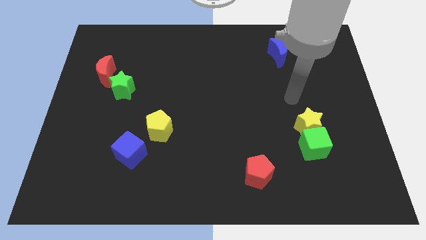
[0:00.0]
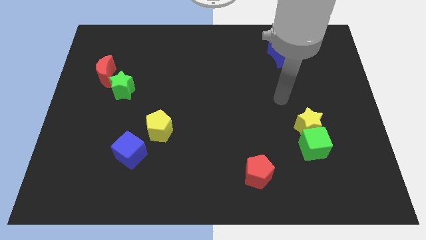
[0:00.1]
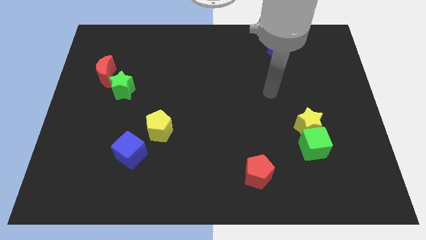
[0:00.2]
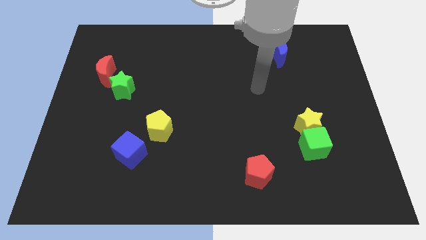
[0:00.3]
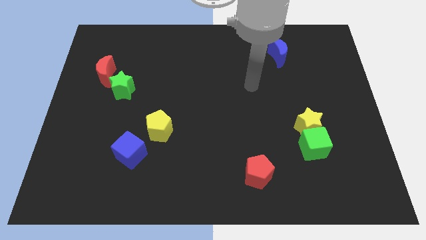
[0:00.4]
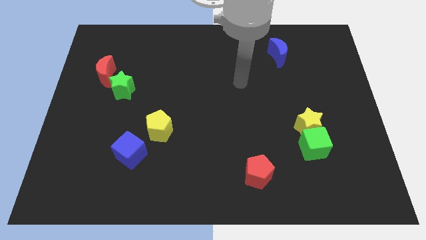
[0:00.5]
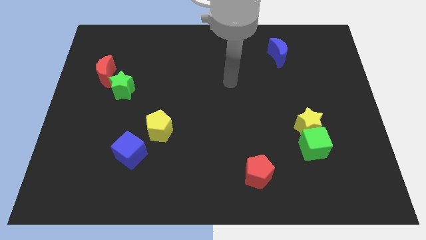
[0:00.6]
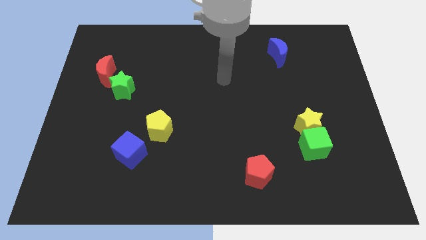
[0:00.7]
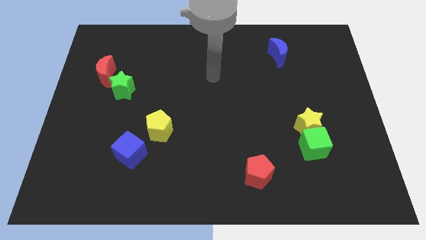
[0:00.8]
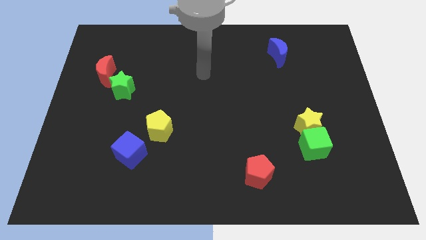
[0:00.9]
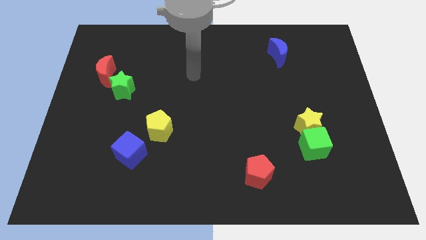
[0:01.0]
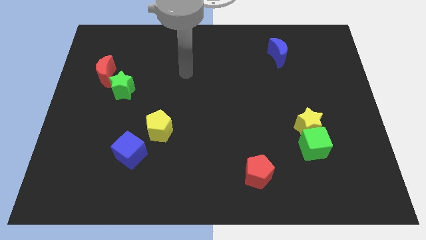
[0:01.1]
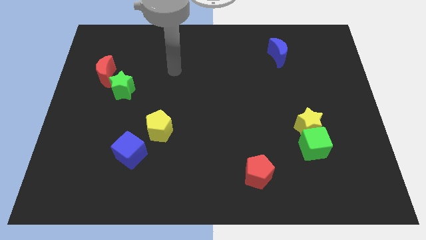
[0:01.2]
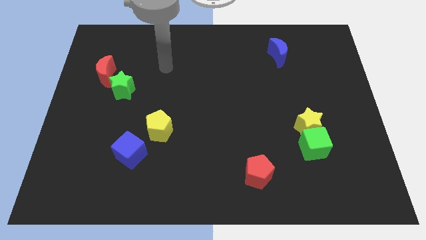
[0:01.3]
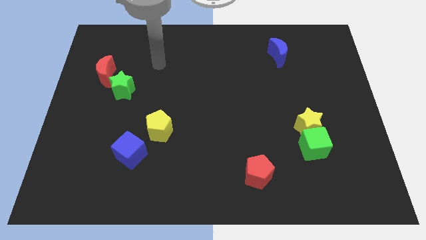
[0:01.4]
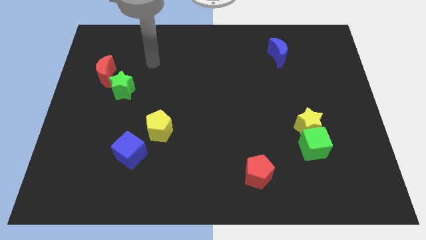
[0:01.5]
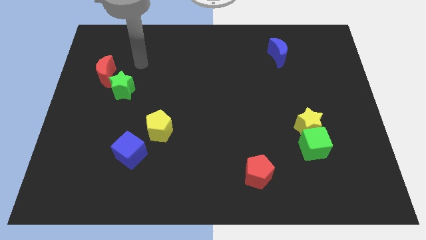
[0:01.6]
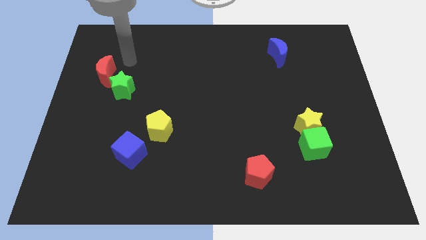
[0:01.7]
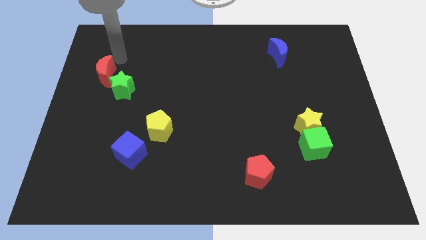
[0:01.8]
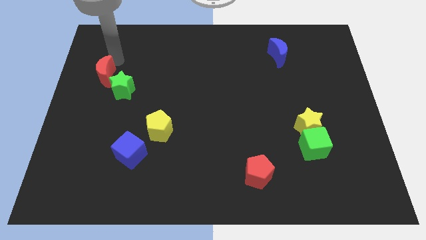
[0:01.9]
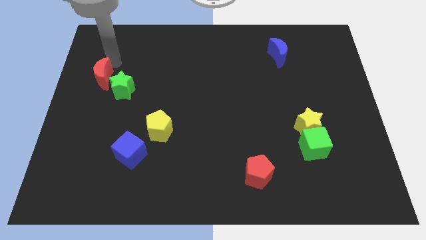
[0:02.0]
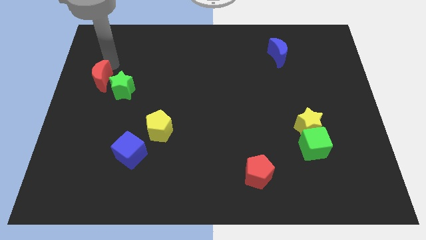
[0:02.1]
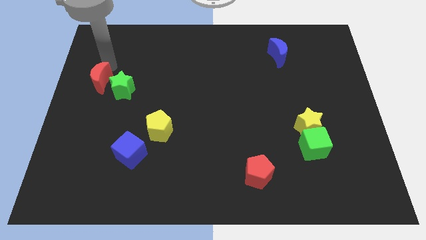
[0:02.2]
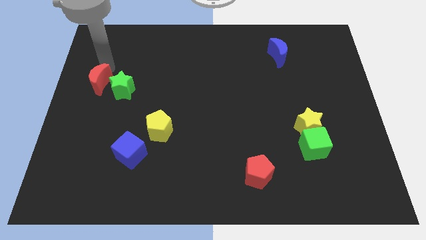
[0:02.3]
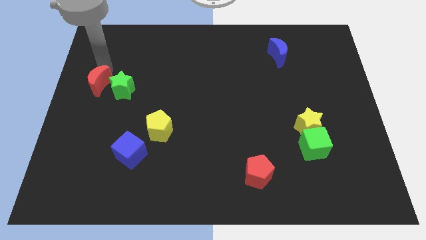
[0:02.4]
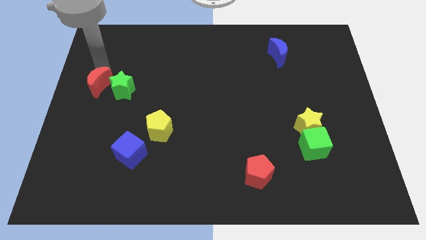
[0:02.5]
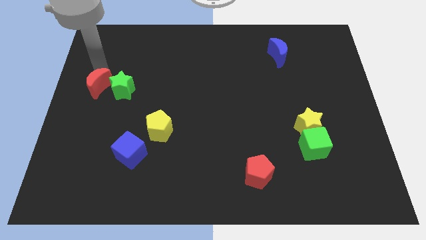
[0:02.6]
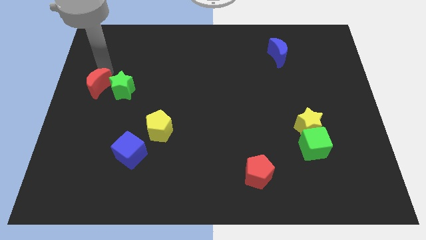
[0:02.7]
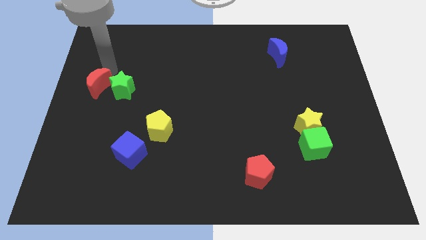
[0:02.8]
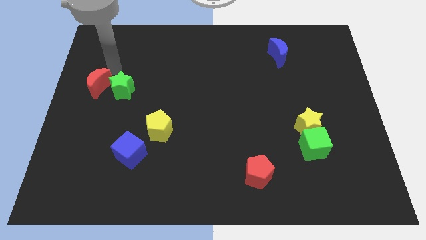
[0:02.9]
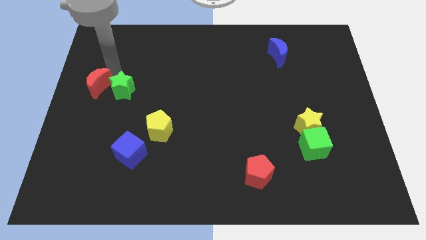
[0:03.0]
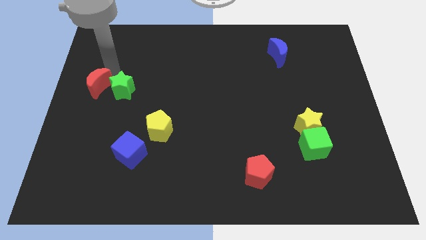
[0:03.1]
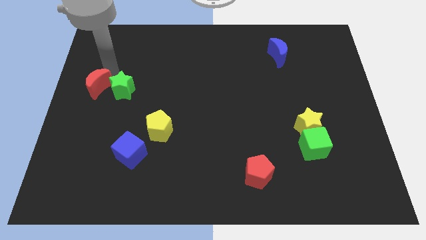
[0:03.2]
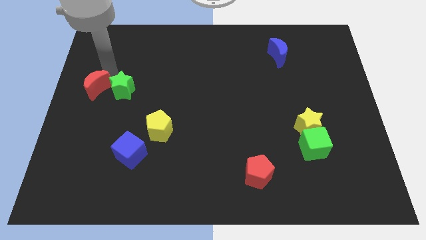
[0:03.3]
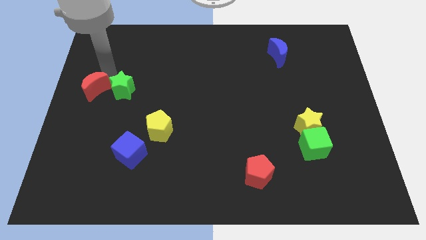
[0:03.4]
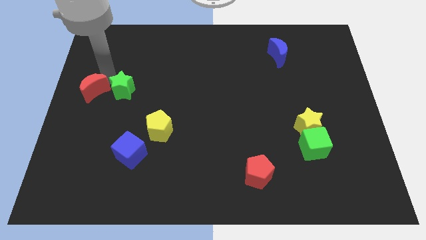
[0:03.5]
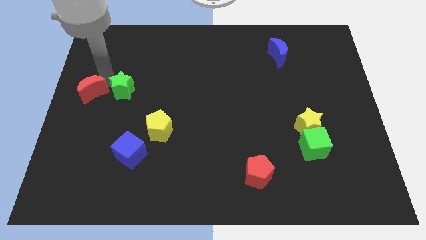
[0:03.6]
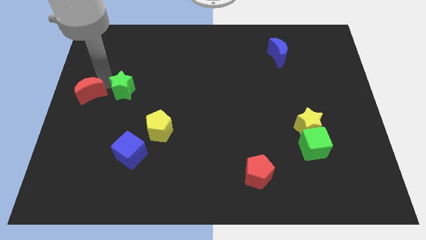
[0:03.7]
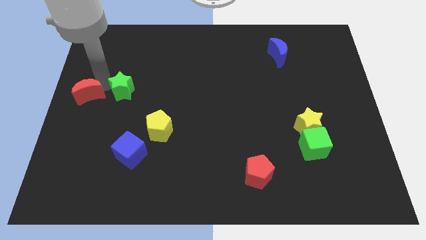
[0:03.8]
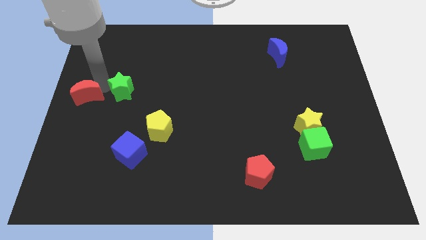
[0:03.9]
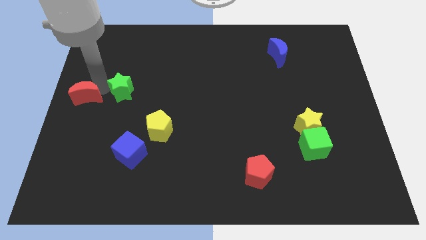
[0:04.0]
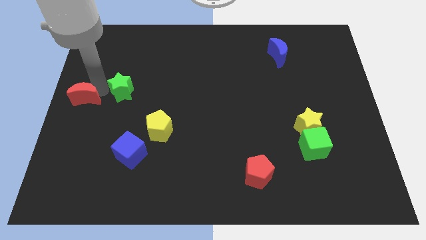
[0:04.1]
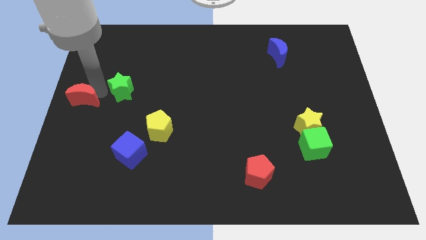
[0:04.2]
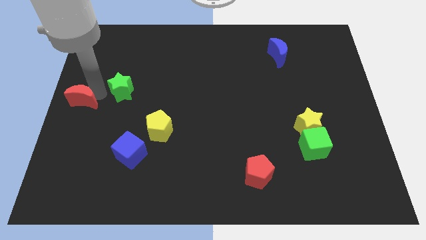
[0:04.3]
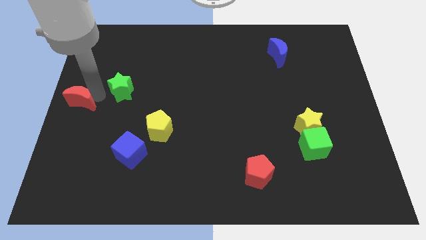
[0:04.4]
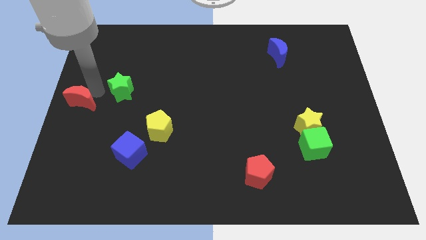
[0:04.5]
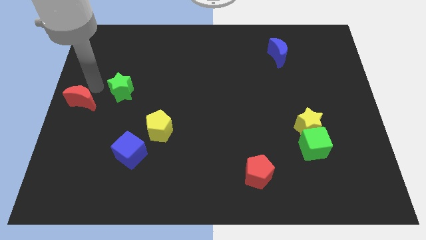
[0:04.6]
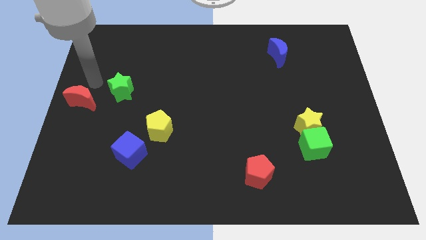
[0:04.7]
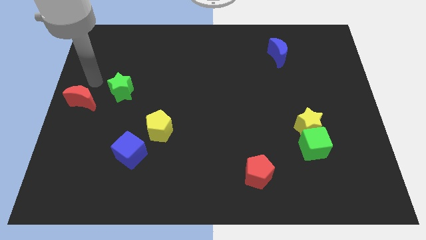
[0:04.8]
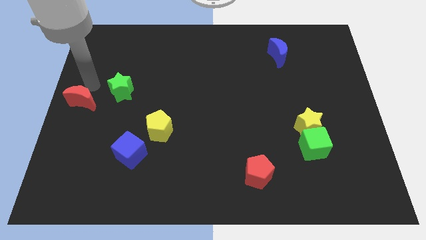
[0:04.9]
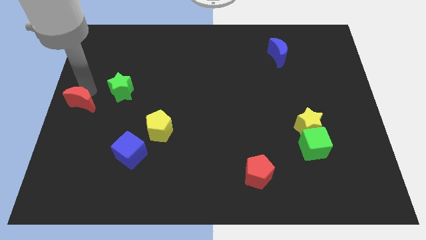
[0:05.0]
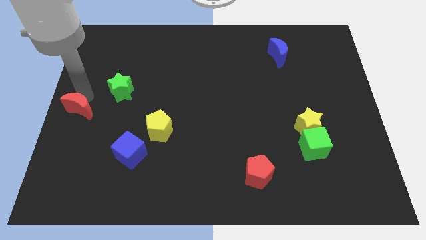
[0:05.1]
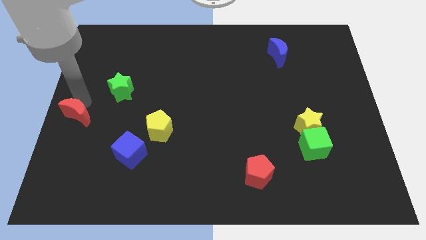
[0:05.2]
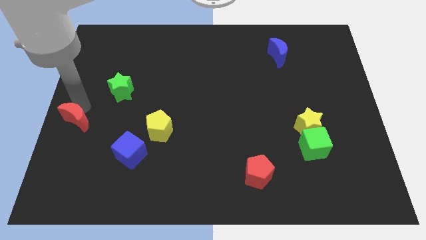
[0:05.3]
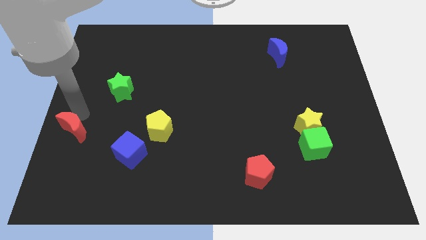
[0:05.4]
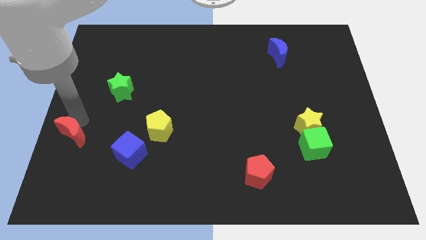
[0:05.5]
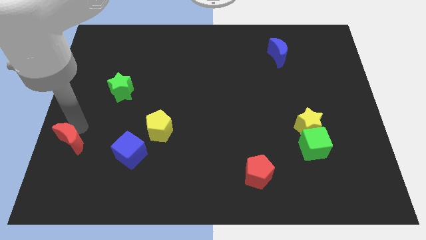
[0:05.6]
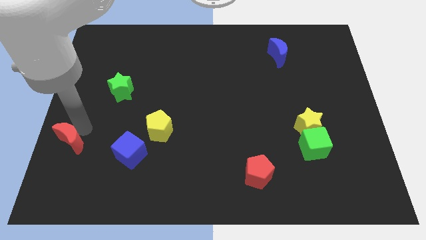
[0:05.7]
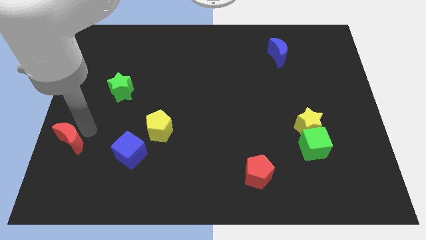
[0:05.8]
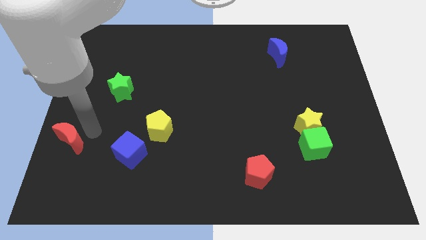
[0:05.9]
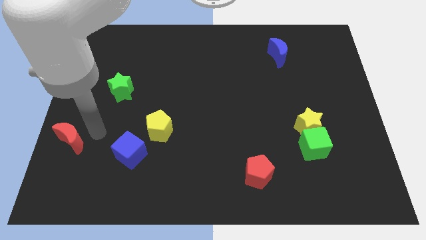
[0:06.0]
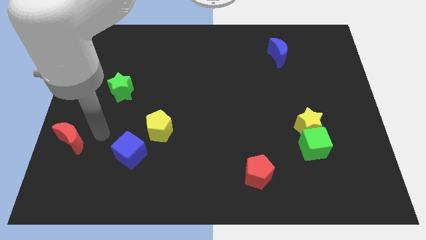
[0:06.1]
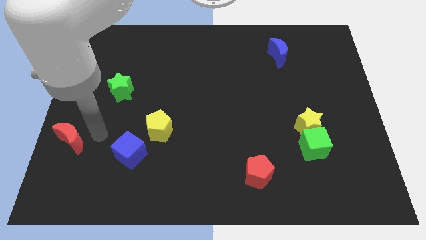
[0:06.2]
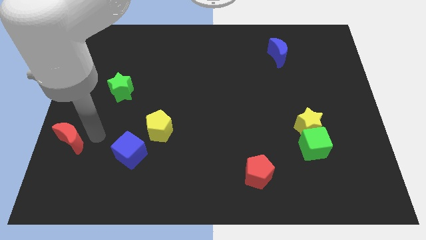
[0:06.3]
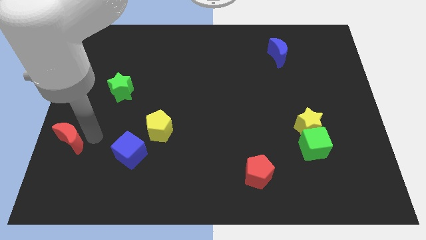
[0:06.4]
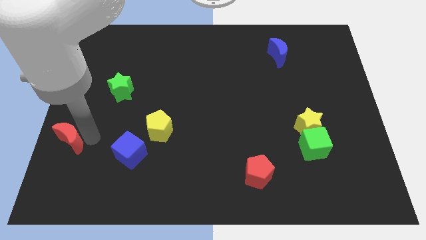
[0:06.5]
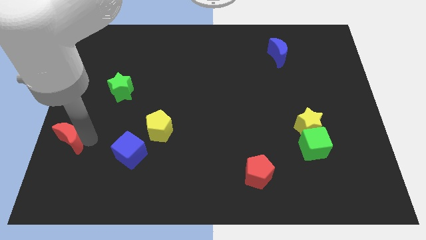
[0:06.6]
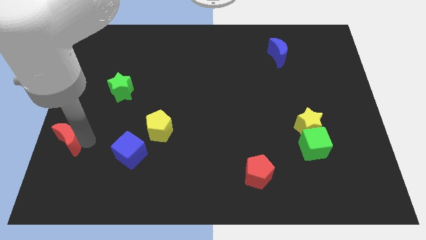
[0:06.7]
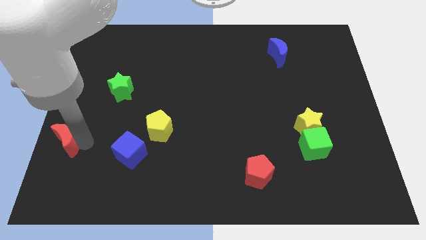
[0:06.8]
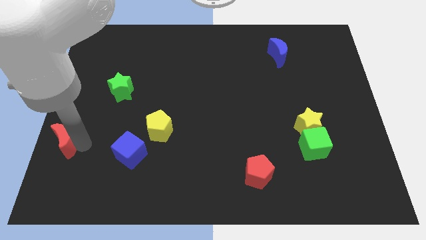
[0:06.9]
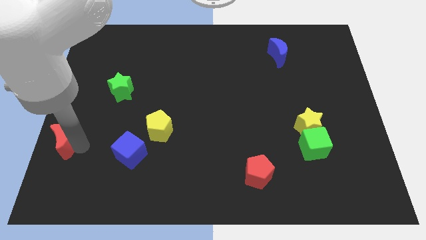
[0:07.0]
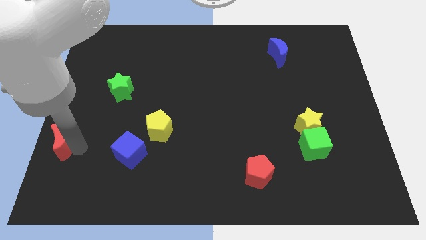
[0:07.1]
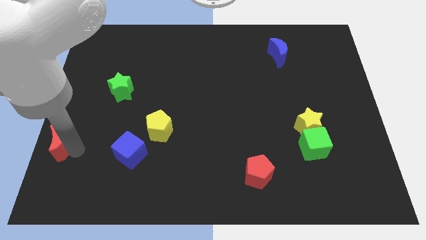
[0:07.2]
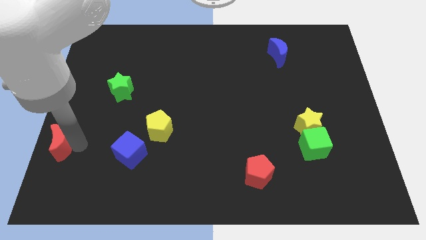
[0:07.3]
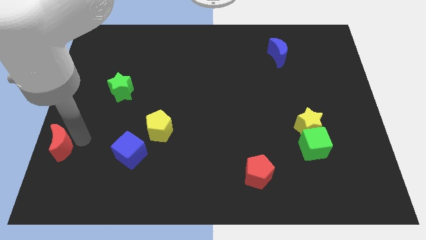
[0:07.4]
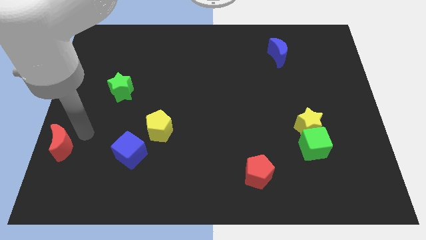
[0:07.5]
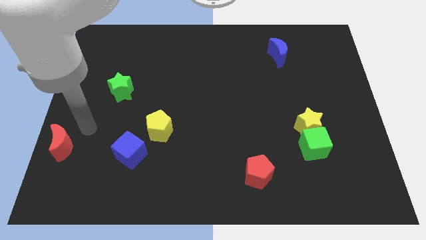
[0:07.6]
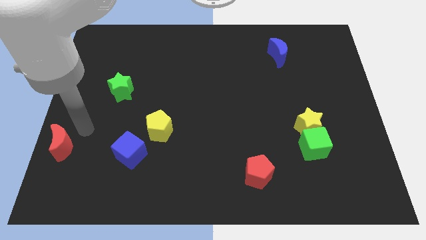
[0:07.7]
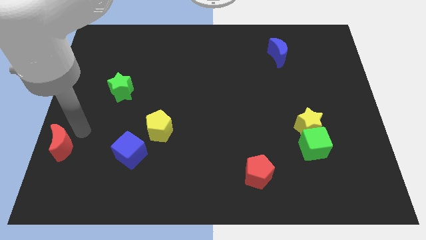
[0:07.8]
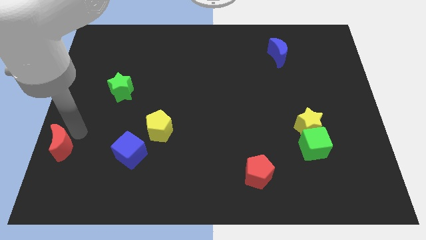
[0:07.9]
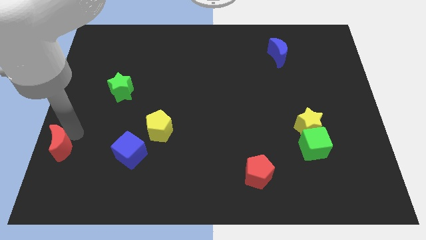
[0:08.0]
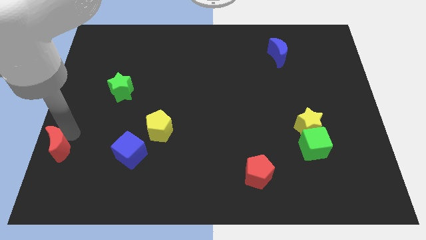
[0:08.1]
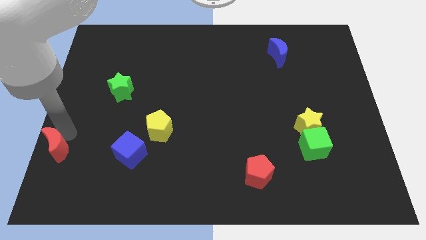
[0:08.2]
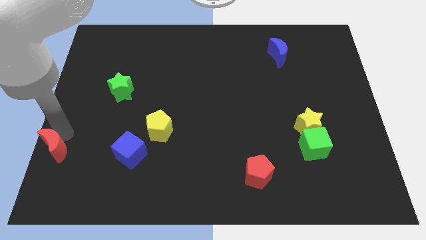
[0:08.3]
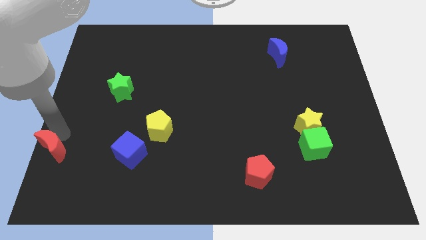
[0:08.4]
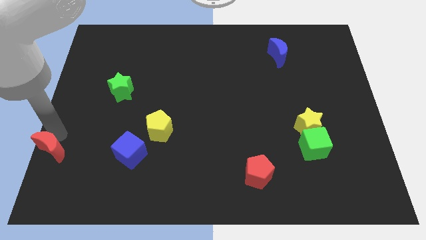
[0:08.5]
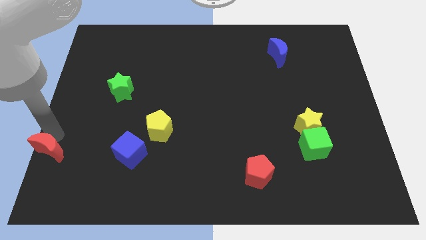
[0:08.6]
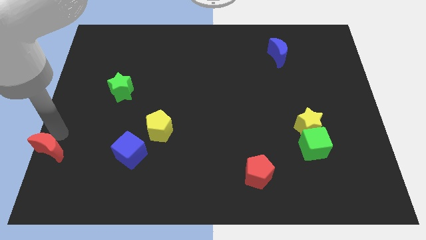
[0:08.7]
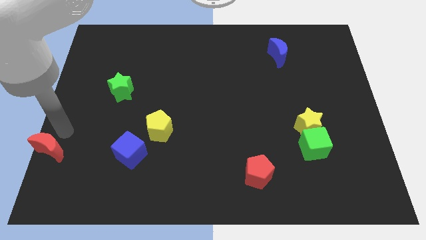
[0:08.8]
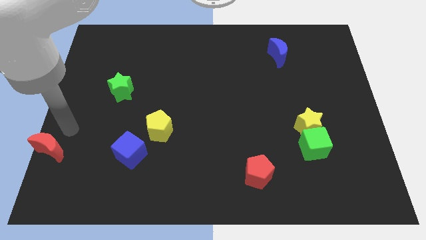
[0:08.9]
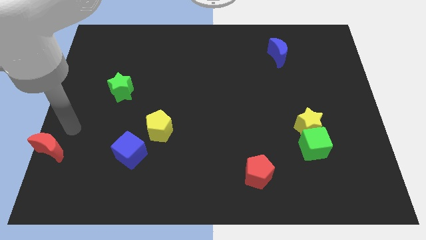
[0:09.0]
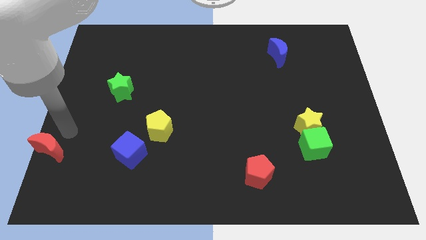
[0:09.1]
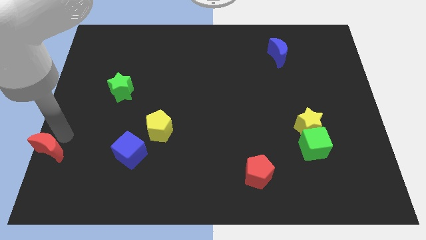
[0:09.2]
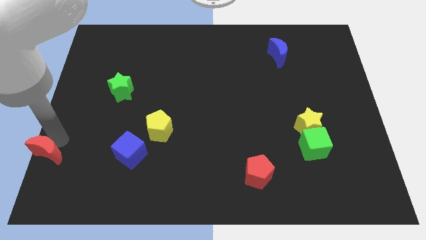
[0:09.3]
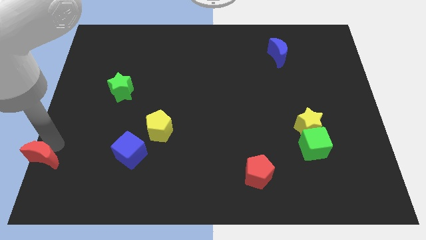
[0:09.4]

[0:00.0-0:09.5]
move the red moon to the bottom left
